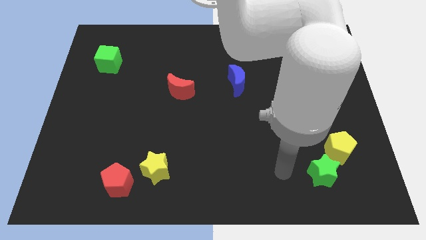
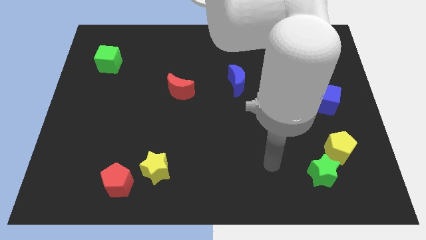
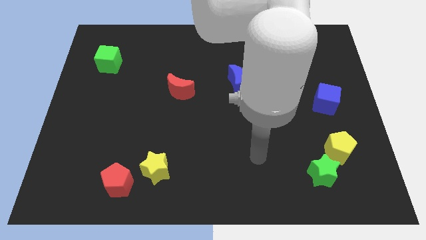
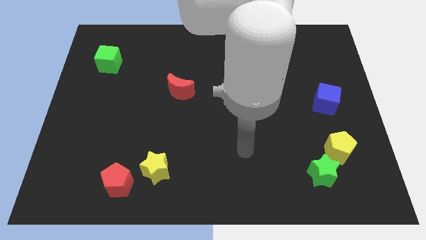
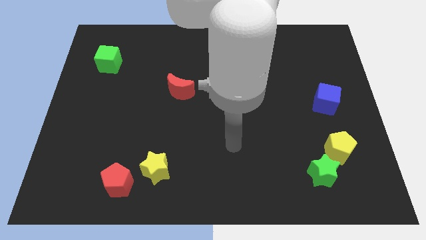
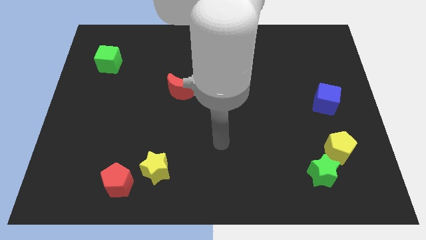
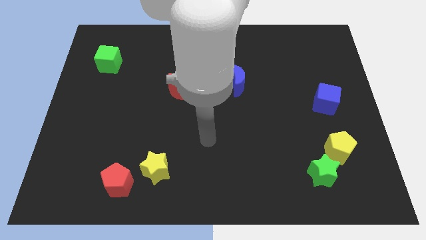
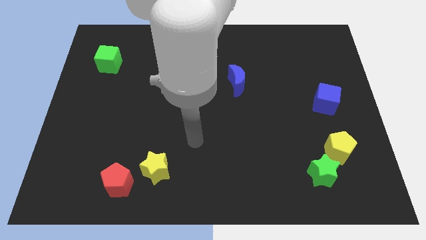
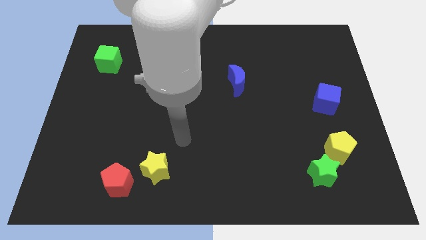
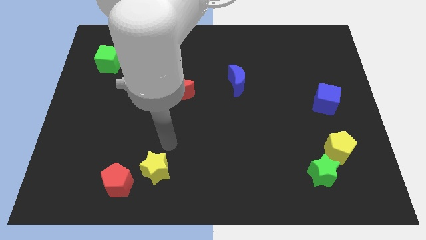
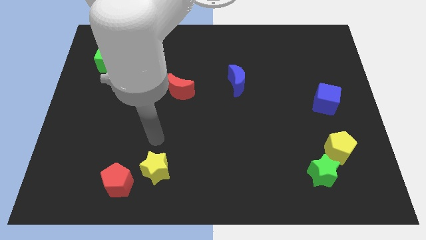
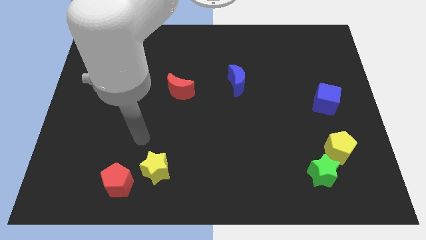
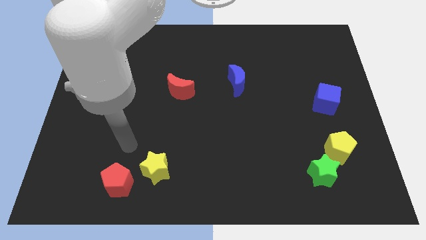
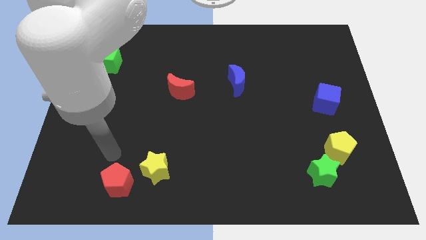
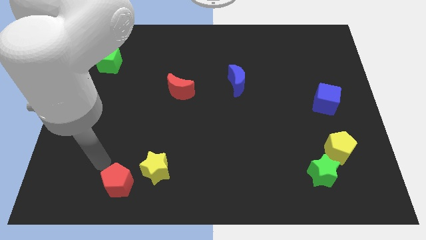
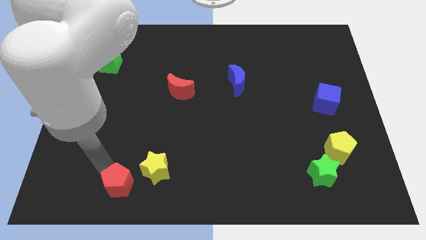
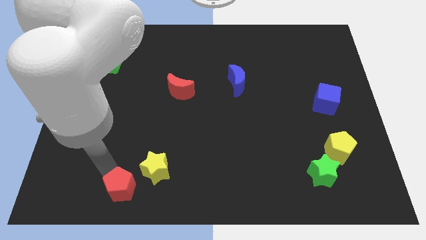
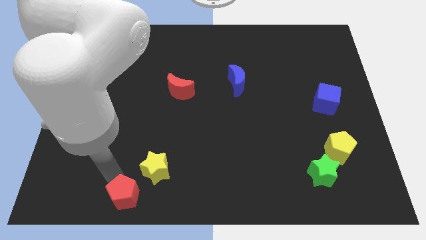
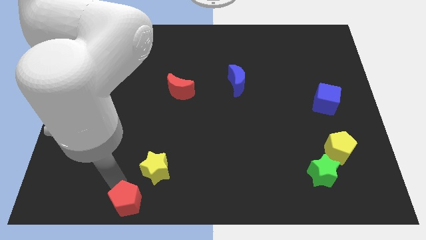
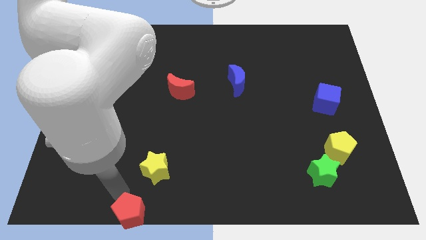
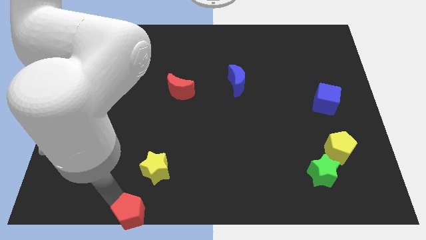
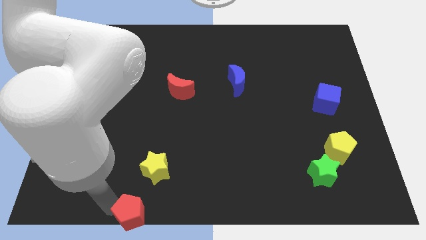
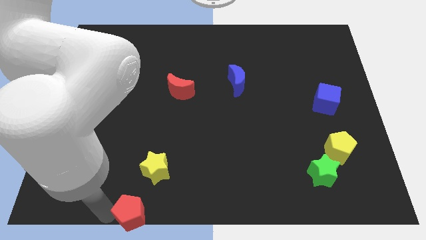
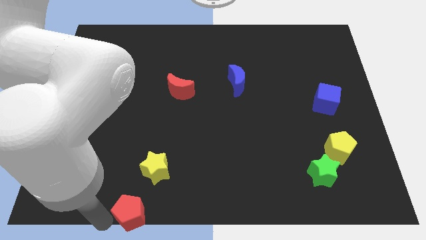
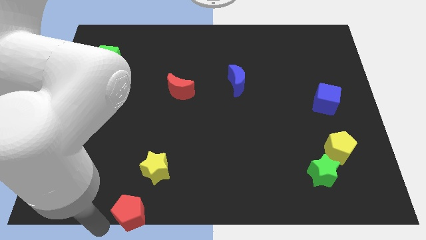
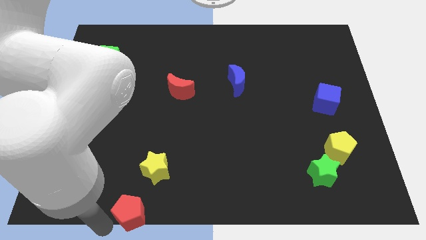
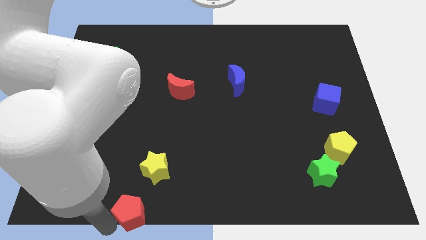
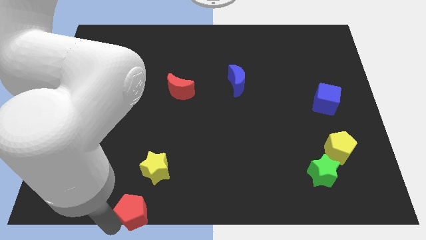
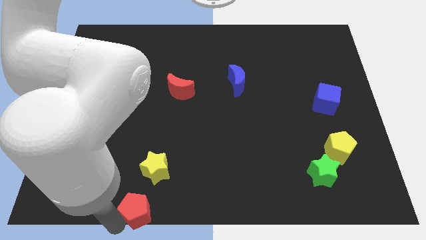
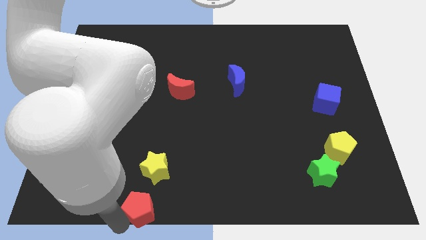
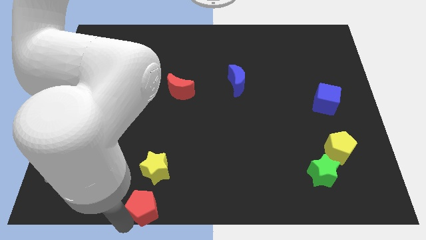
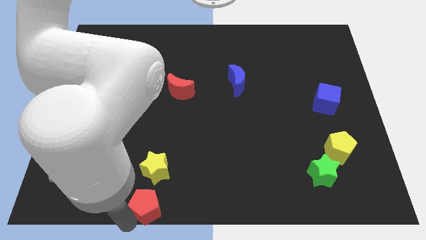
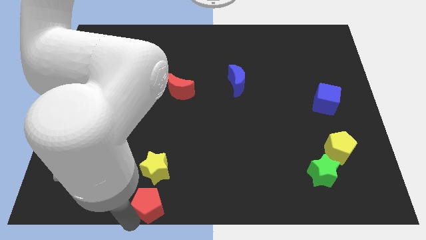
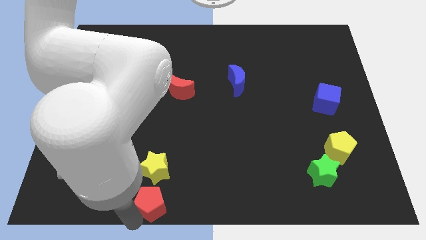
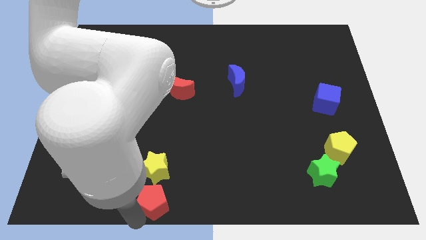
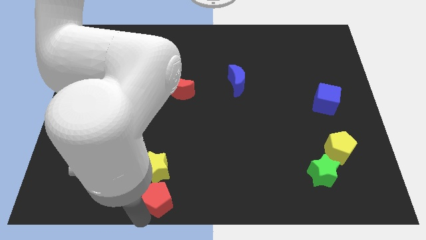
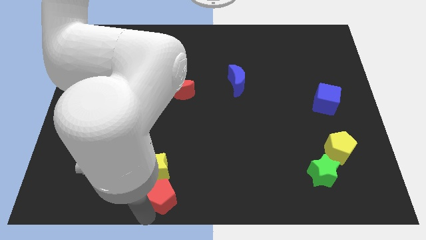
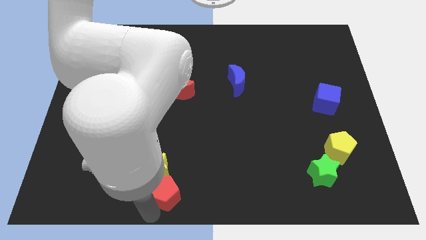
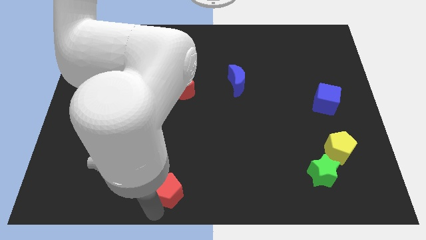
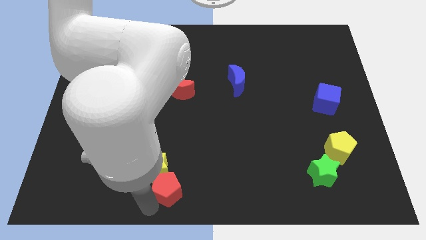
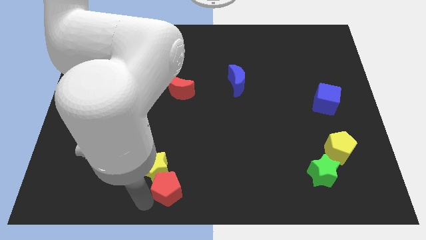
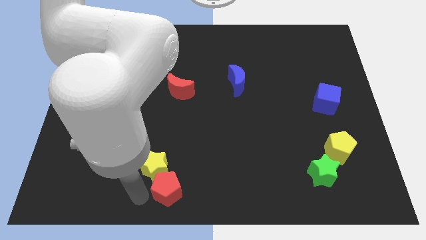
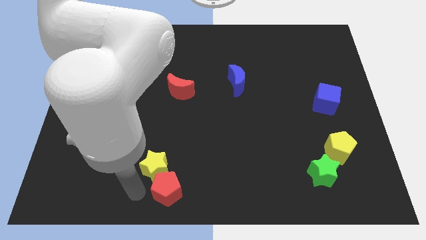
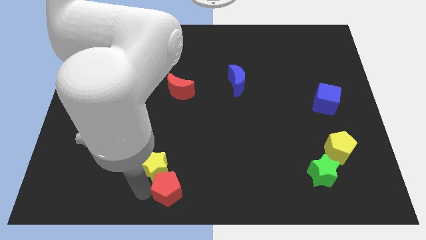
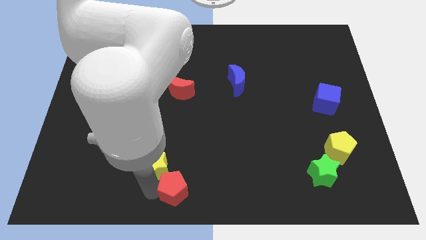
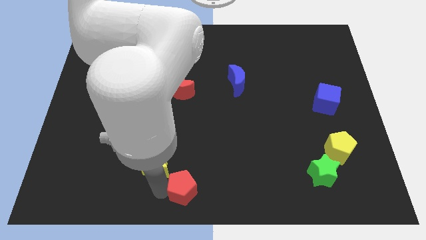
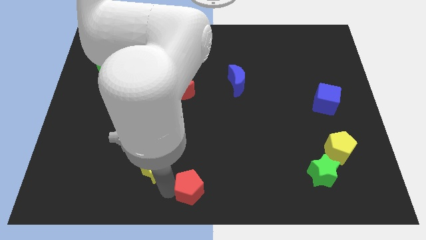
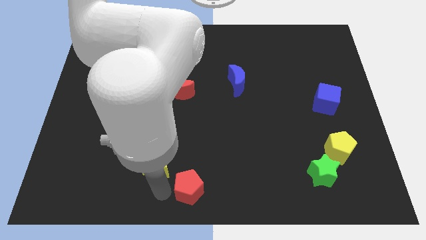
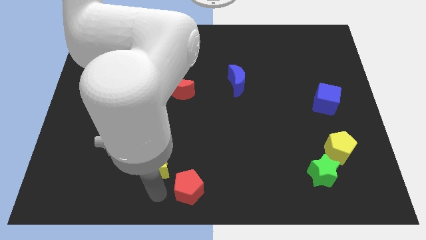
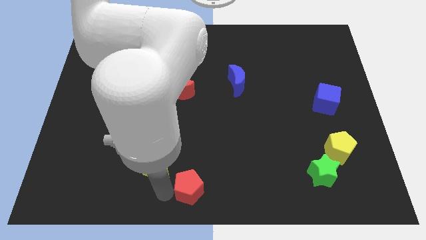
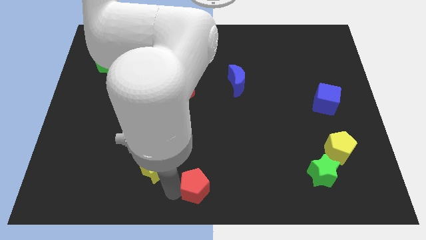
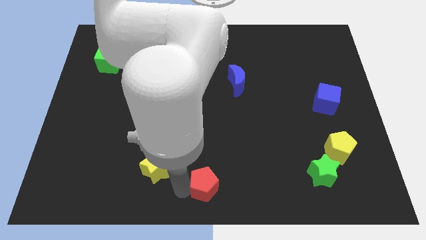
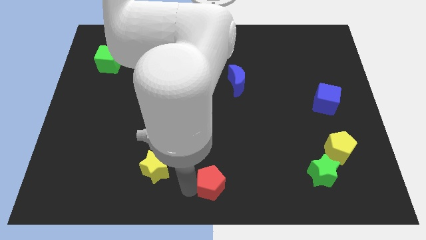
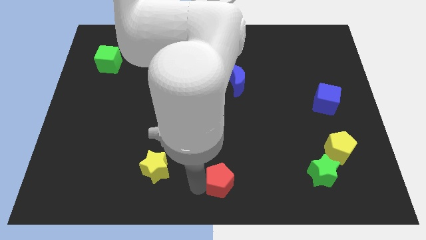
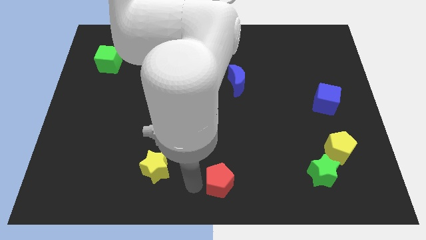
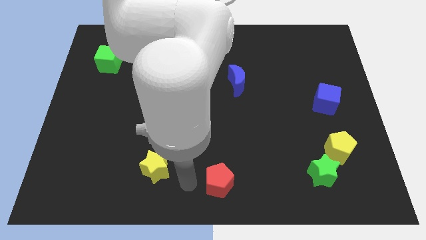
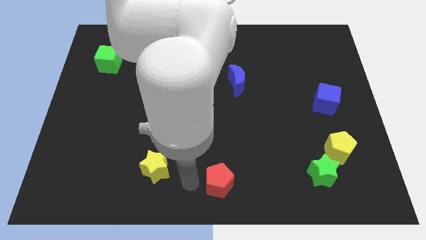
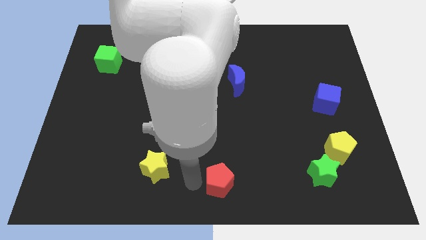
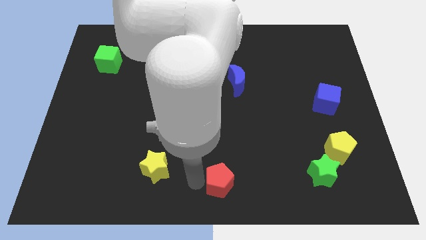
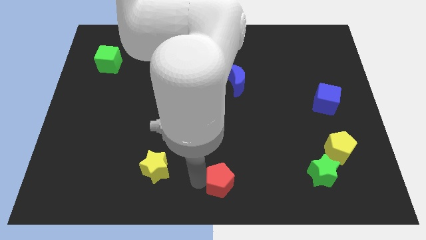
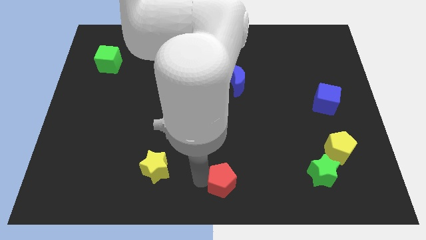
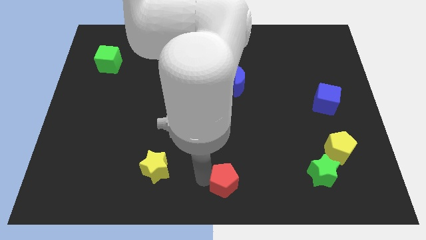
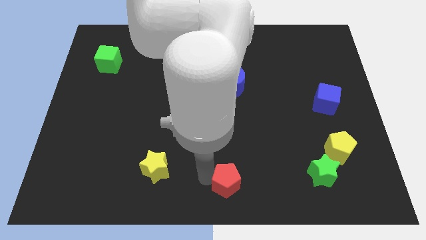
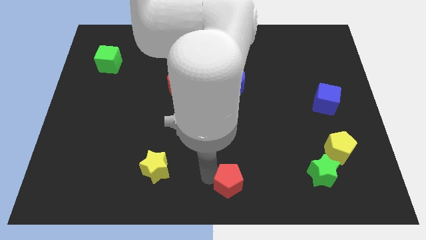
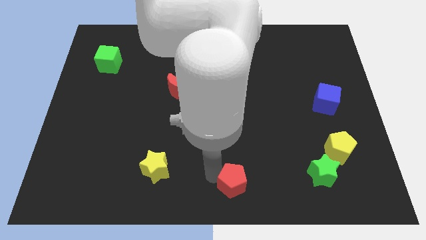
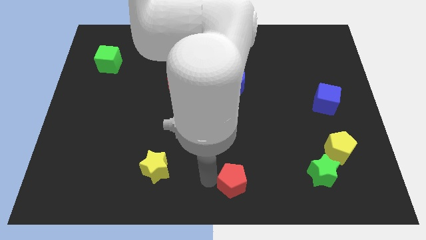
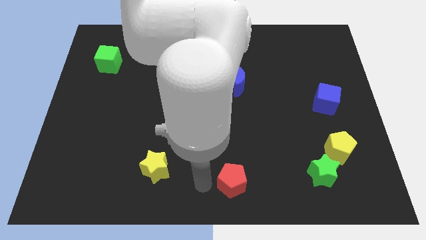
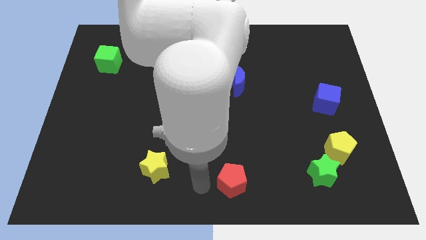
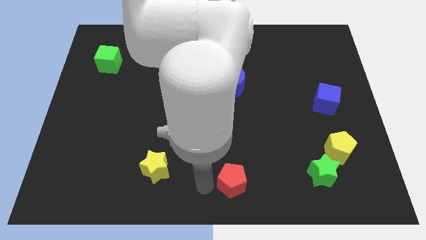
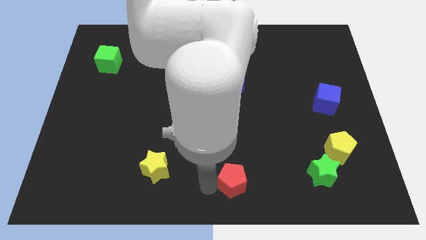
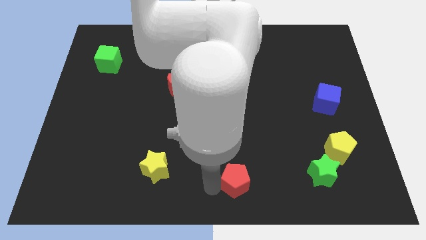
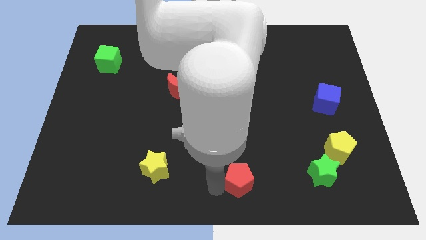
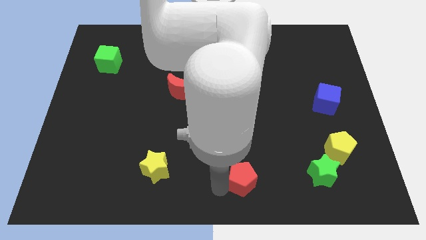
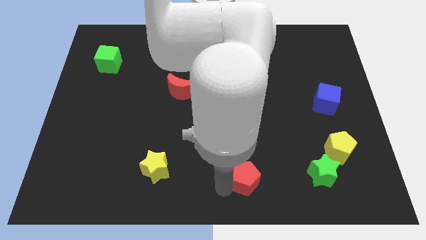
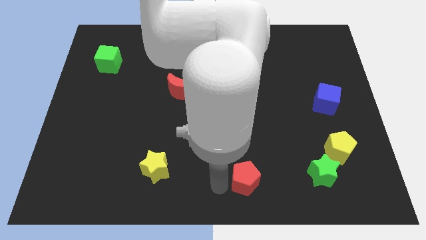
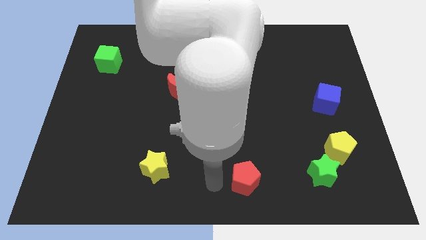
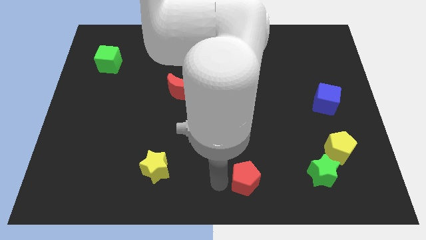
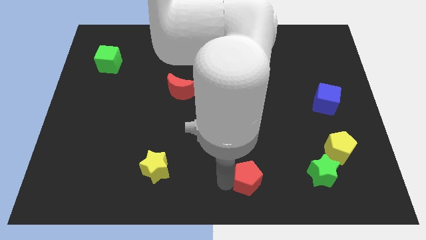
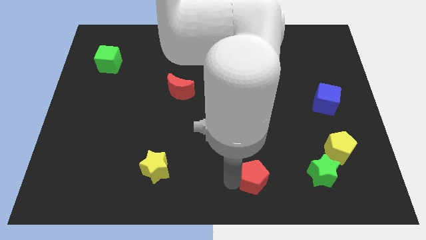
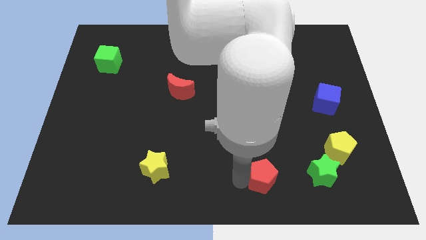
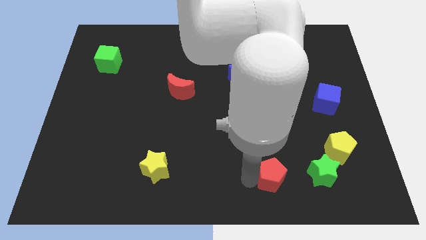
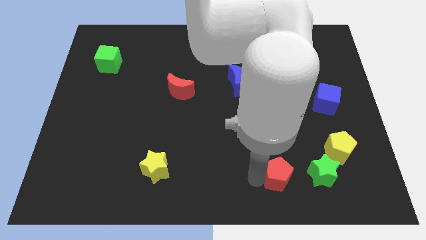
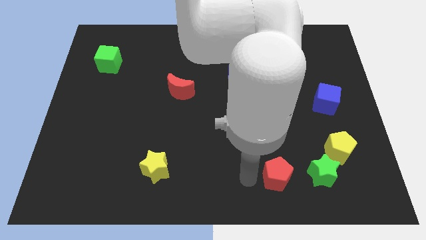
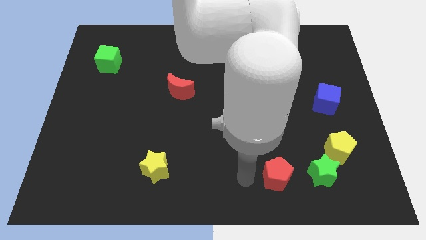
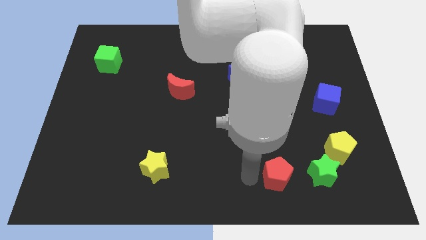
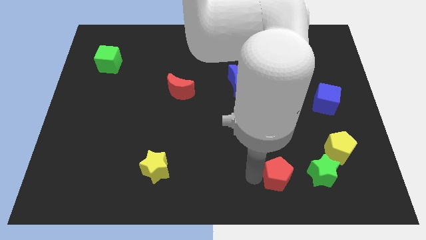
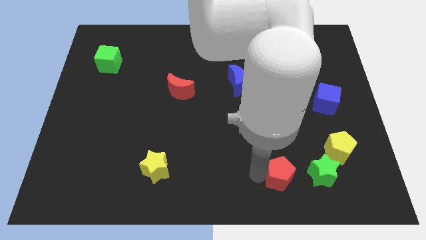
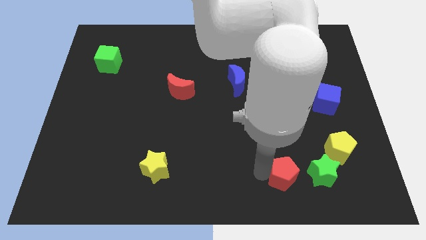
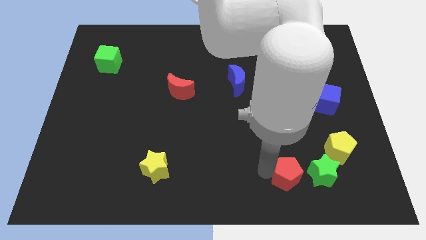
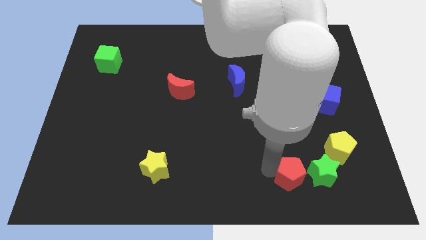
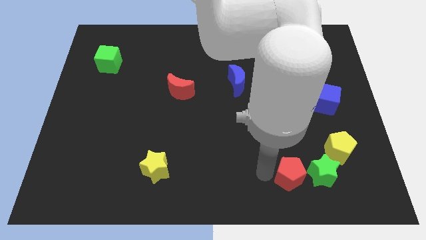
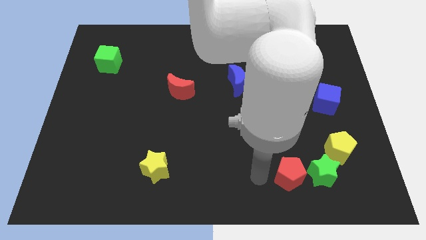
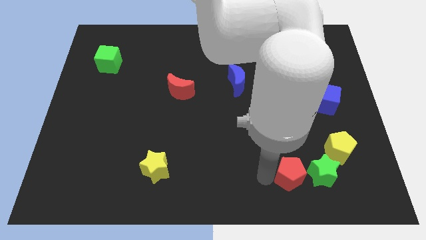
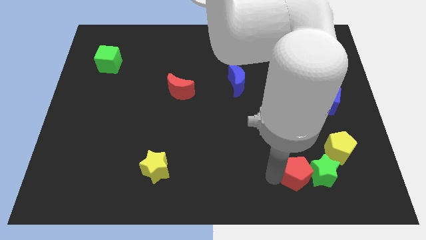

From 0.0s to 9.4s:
push the red pentagon close to the green star
